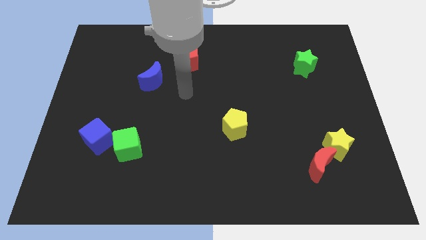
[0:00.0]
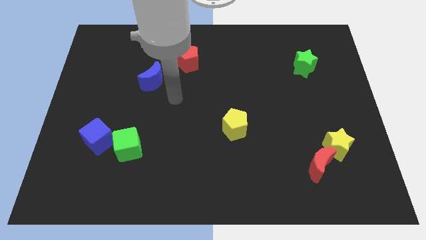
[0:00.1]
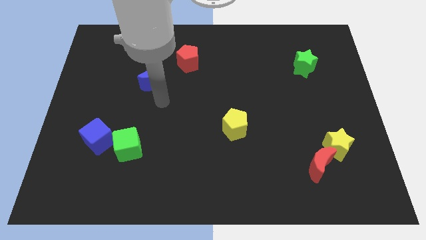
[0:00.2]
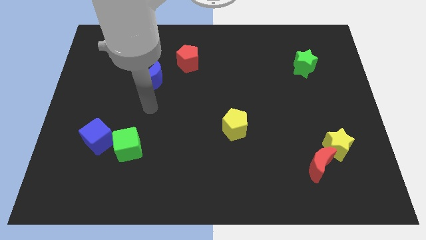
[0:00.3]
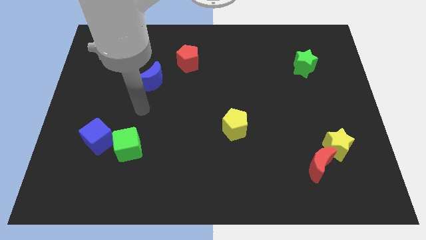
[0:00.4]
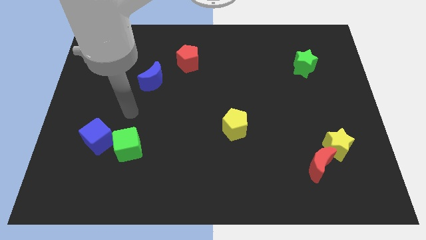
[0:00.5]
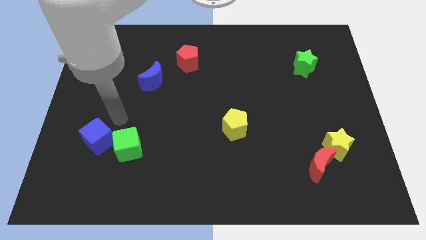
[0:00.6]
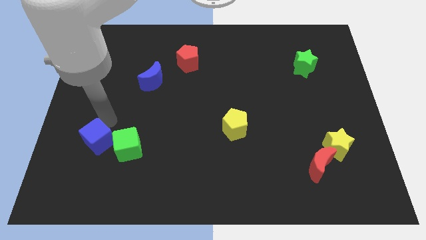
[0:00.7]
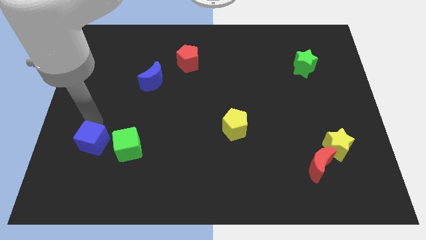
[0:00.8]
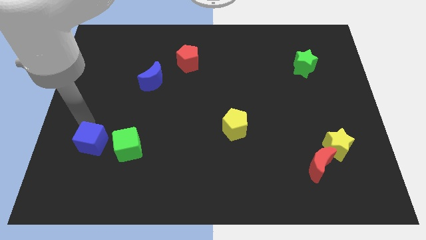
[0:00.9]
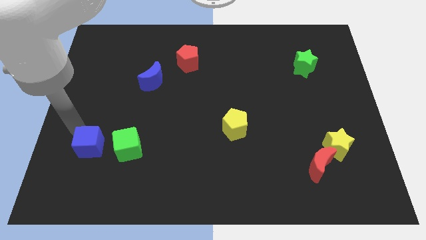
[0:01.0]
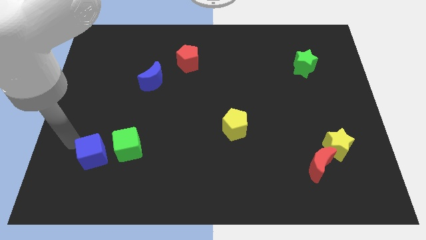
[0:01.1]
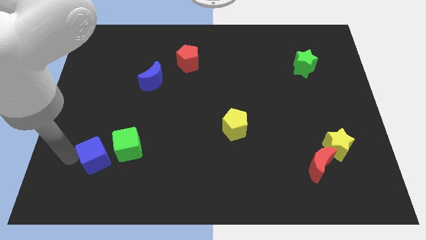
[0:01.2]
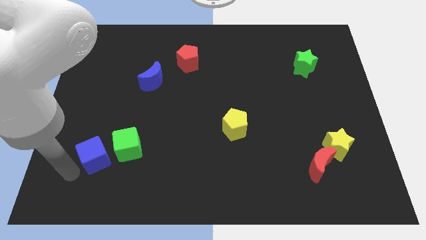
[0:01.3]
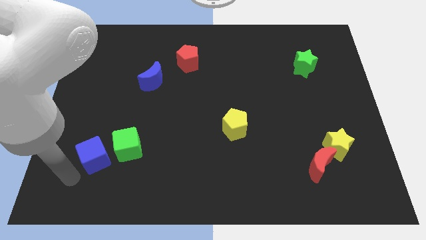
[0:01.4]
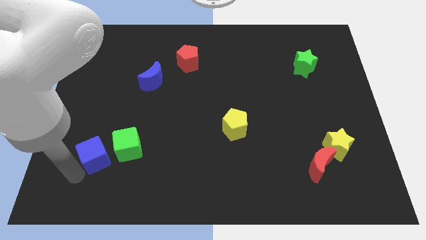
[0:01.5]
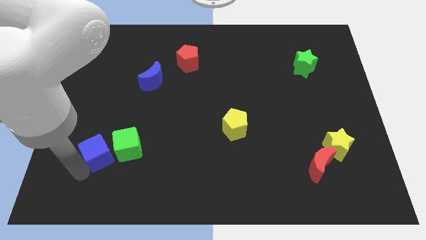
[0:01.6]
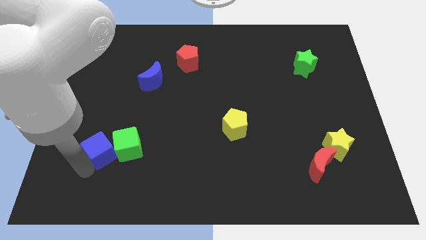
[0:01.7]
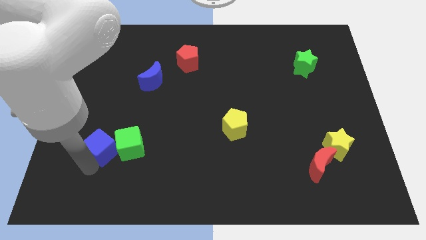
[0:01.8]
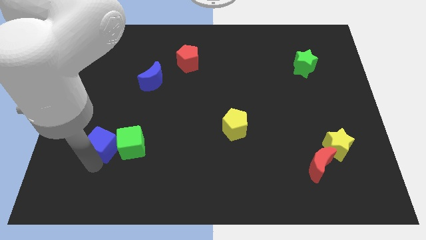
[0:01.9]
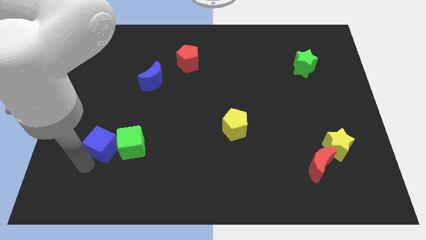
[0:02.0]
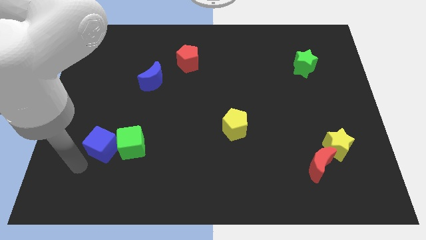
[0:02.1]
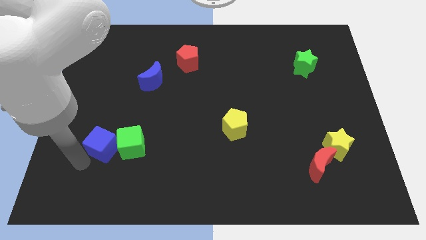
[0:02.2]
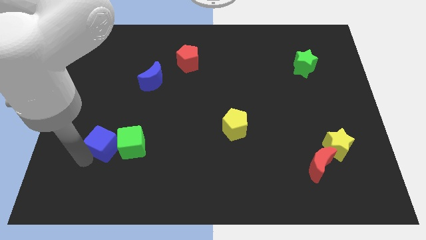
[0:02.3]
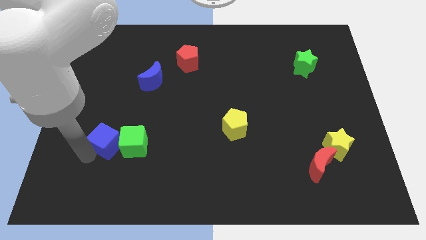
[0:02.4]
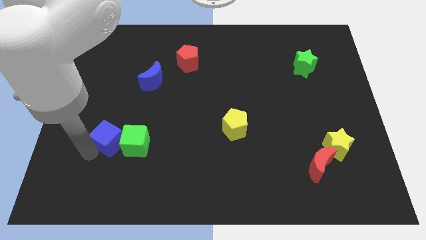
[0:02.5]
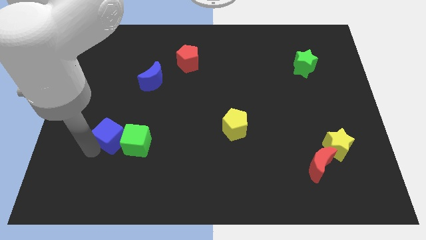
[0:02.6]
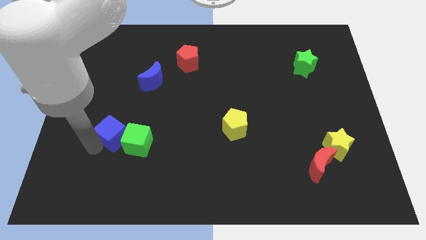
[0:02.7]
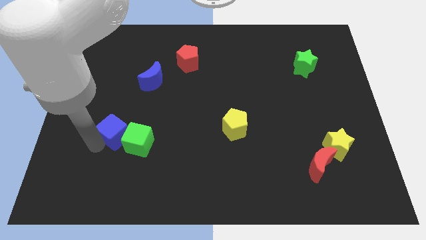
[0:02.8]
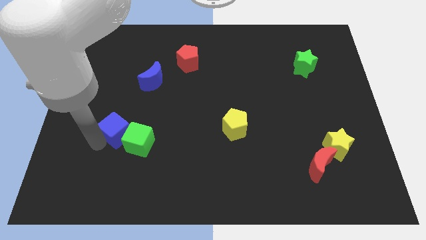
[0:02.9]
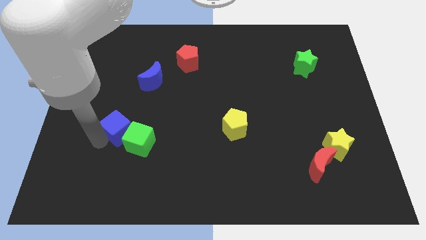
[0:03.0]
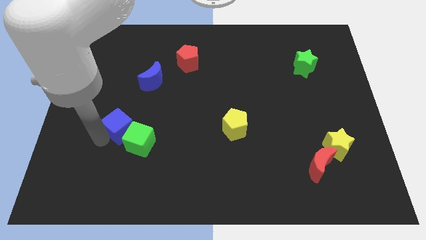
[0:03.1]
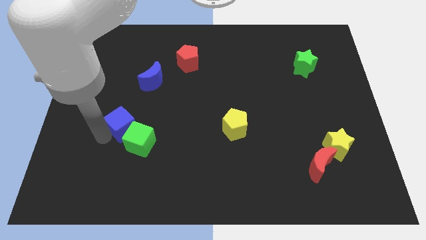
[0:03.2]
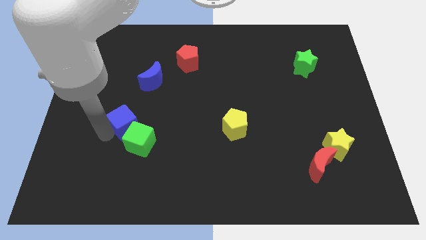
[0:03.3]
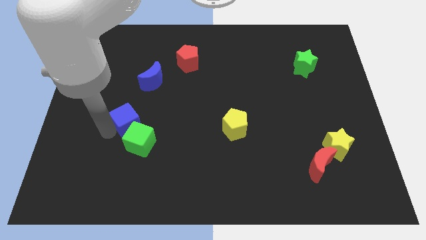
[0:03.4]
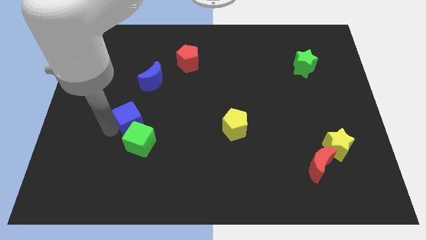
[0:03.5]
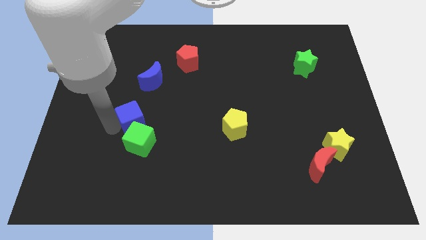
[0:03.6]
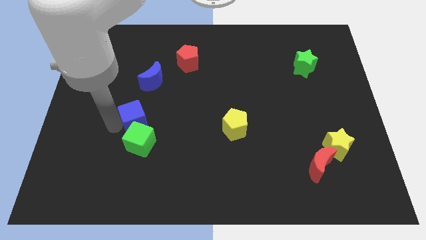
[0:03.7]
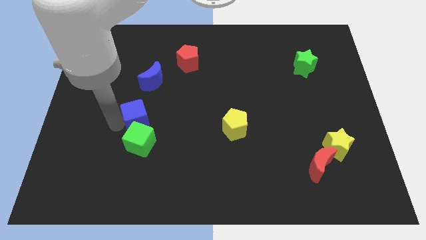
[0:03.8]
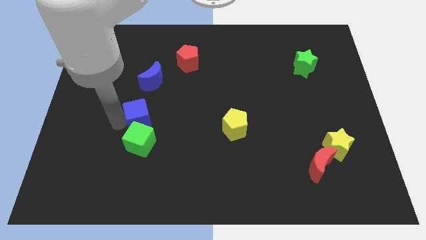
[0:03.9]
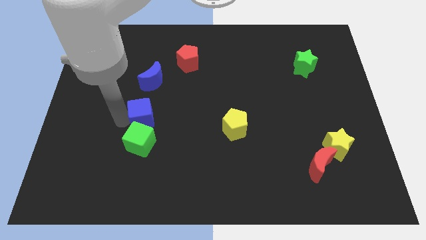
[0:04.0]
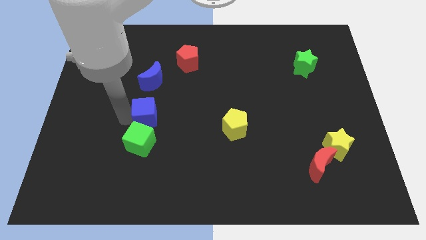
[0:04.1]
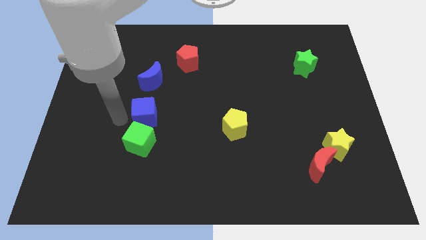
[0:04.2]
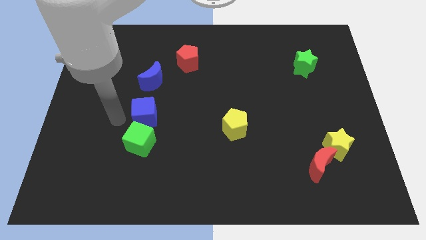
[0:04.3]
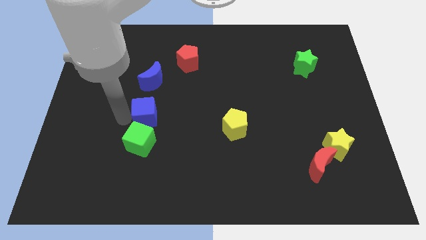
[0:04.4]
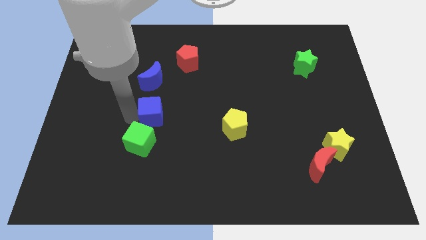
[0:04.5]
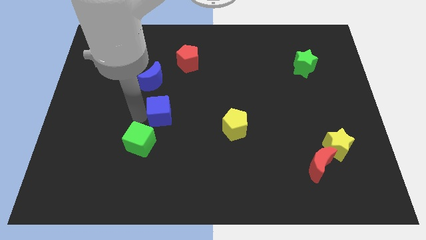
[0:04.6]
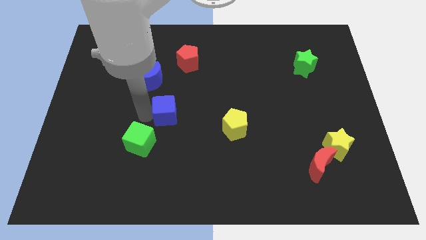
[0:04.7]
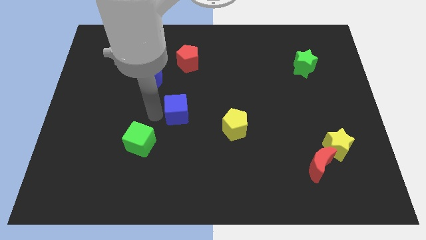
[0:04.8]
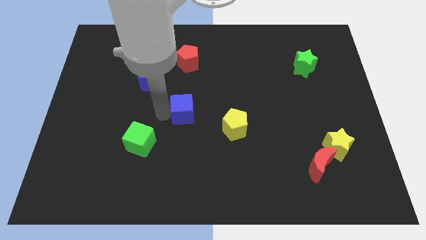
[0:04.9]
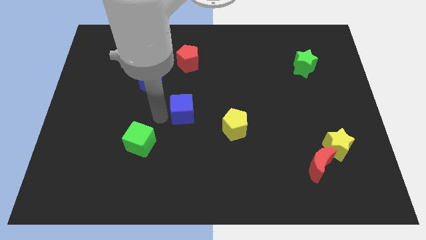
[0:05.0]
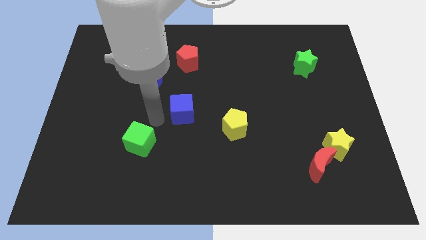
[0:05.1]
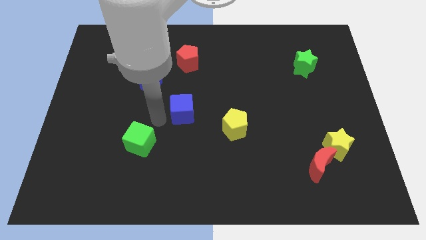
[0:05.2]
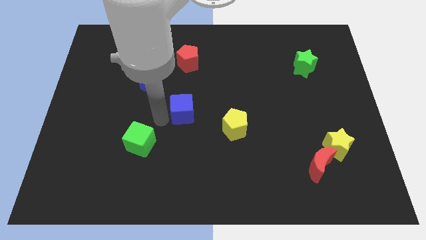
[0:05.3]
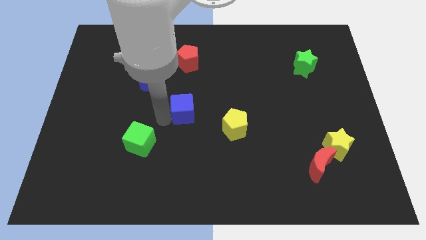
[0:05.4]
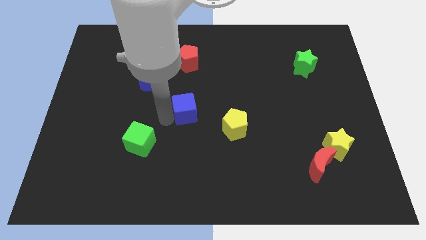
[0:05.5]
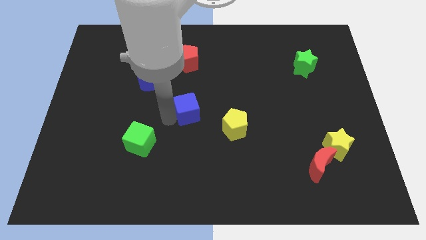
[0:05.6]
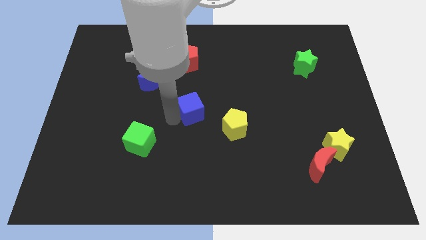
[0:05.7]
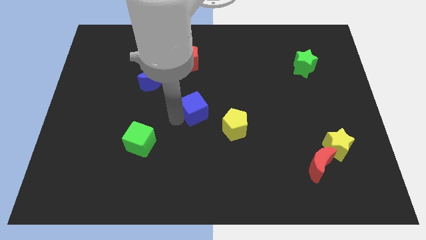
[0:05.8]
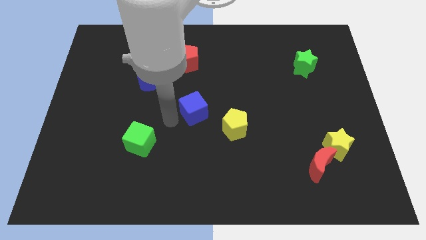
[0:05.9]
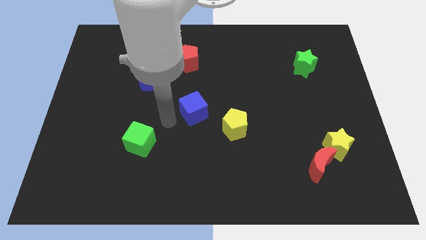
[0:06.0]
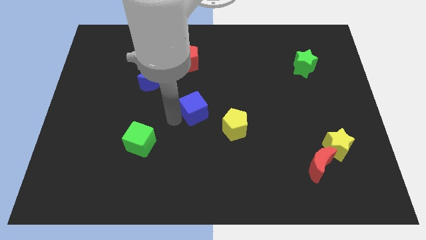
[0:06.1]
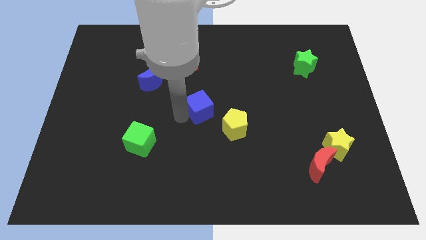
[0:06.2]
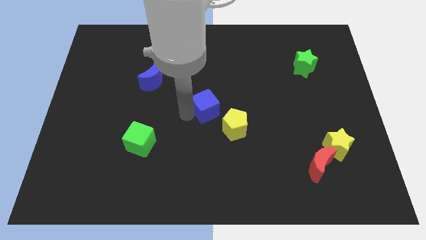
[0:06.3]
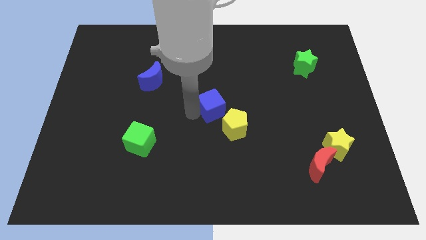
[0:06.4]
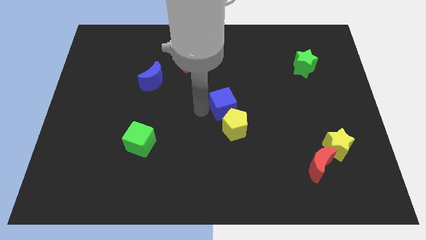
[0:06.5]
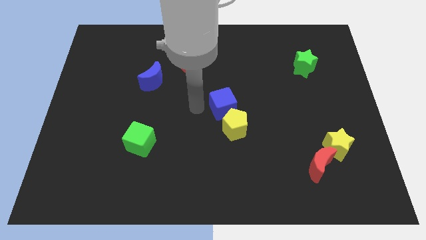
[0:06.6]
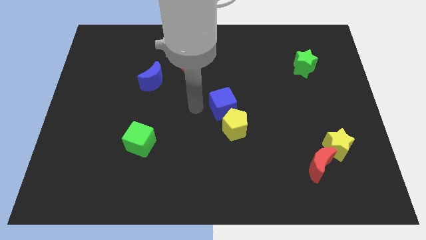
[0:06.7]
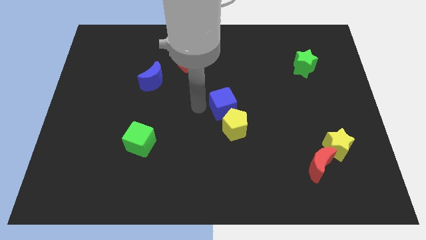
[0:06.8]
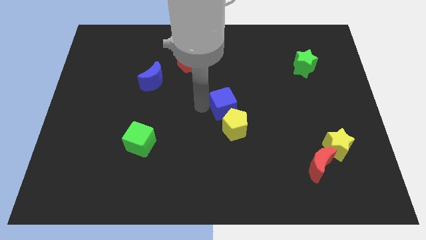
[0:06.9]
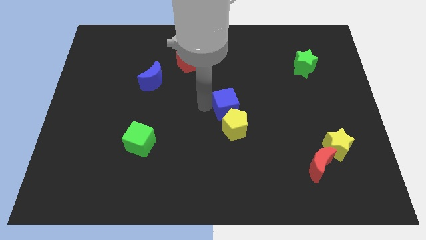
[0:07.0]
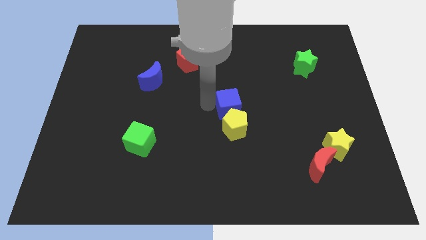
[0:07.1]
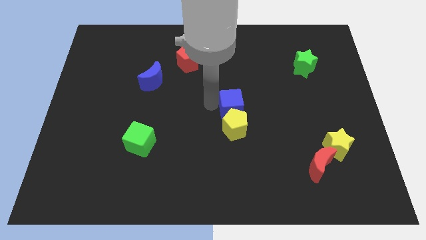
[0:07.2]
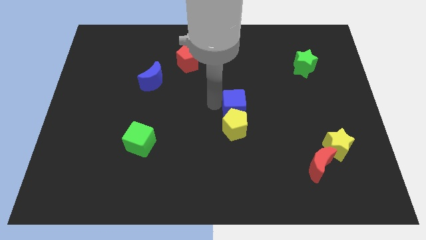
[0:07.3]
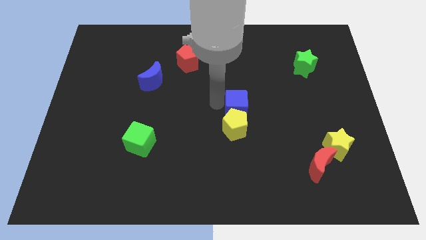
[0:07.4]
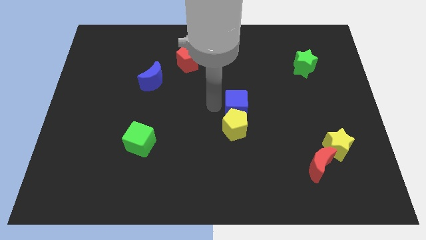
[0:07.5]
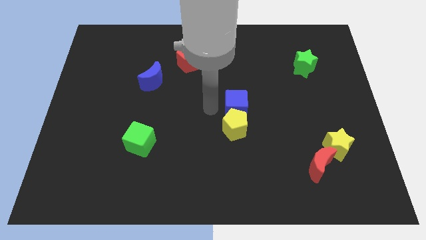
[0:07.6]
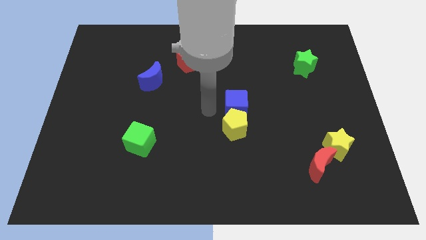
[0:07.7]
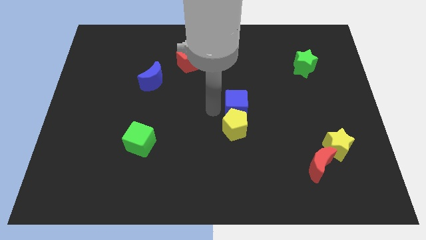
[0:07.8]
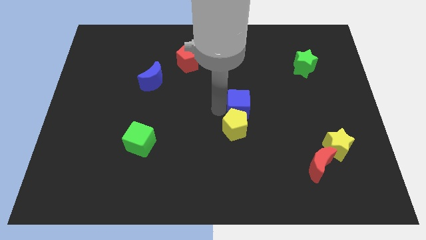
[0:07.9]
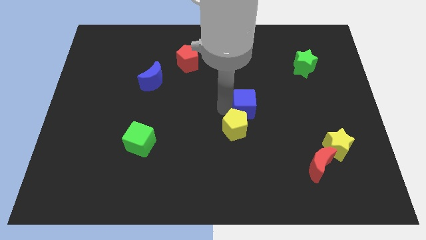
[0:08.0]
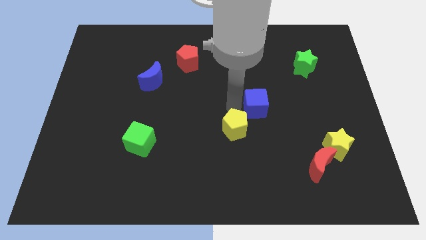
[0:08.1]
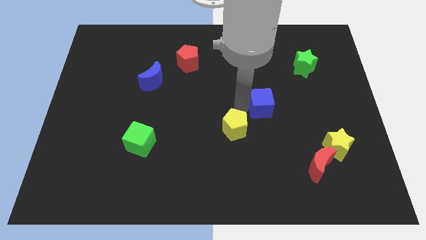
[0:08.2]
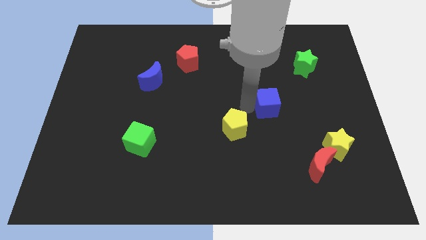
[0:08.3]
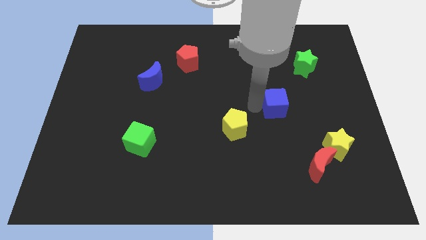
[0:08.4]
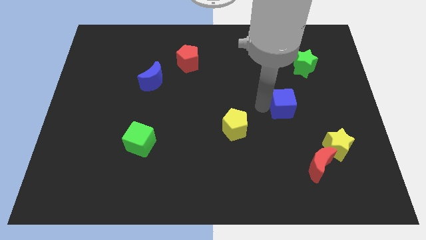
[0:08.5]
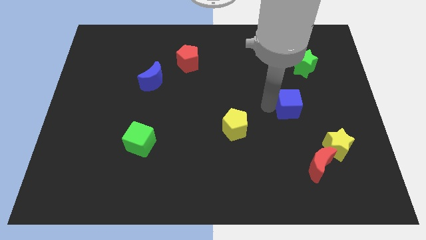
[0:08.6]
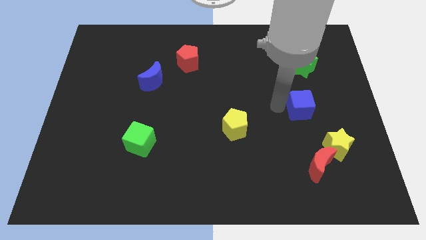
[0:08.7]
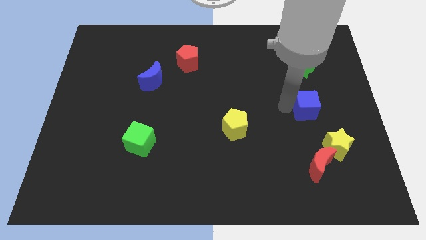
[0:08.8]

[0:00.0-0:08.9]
move the blue cube to the top of the yellow star
